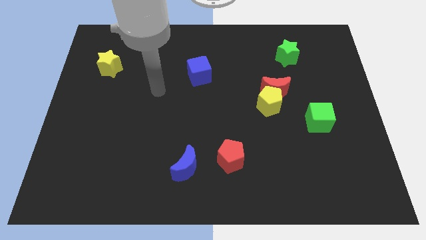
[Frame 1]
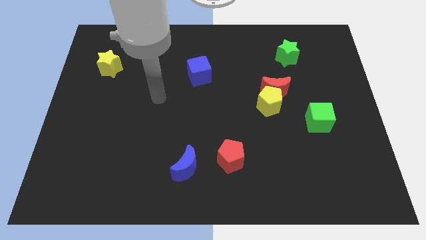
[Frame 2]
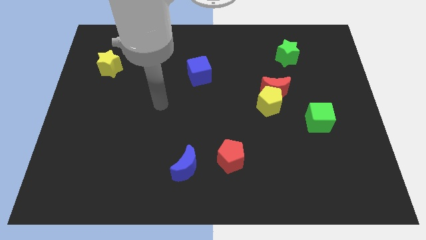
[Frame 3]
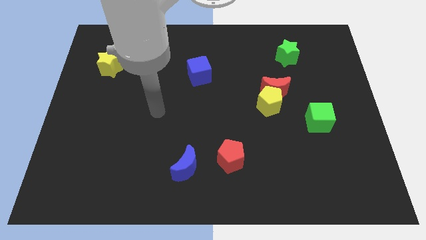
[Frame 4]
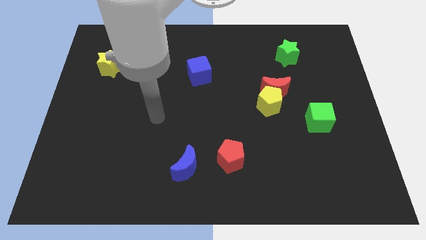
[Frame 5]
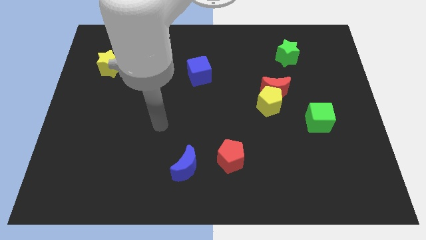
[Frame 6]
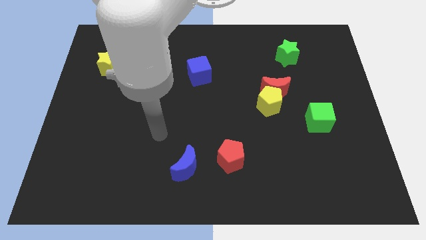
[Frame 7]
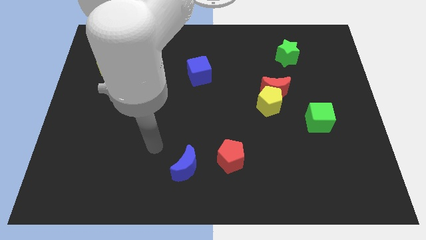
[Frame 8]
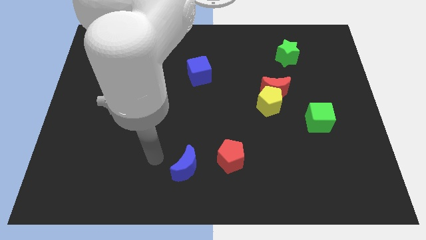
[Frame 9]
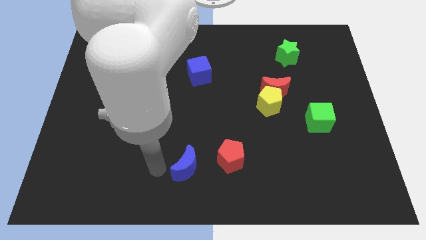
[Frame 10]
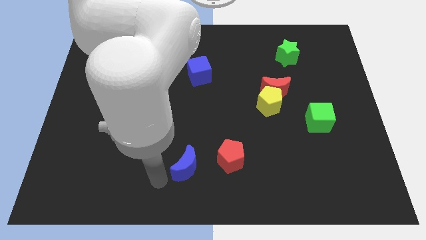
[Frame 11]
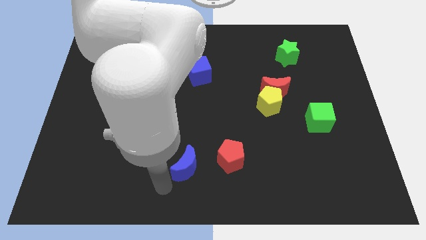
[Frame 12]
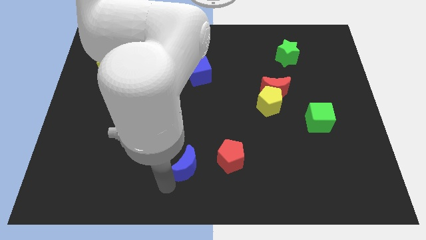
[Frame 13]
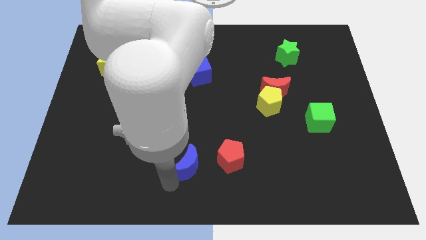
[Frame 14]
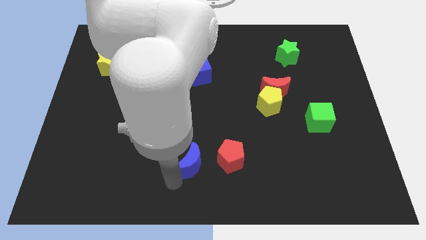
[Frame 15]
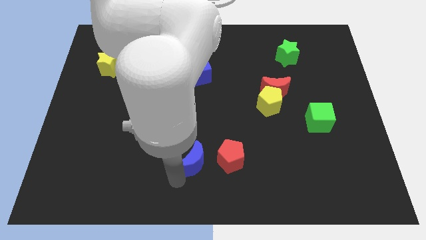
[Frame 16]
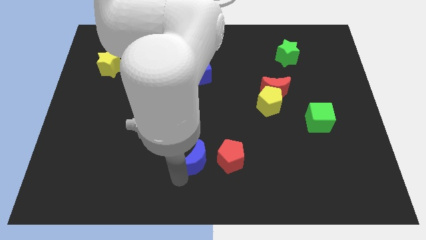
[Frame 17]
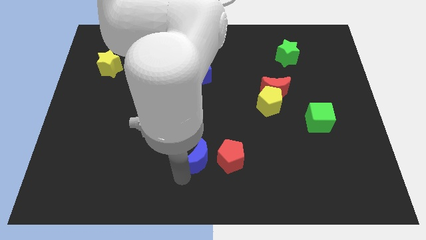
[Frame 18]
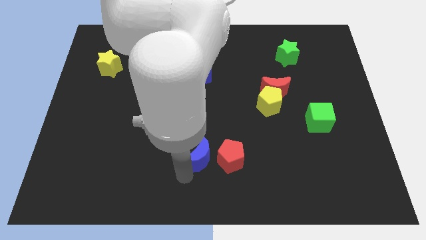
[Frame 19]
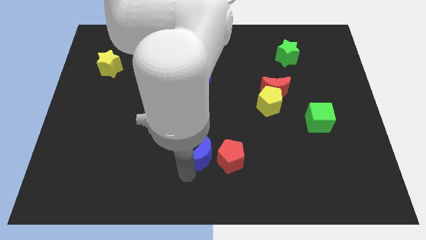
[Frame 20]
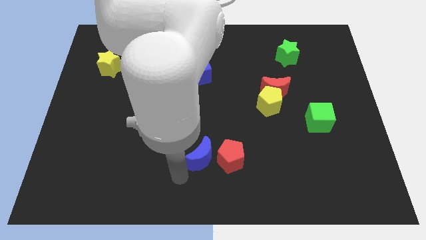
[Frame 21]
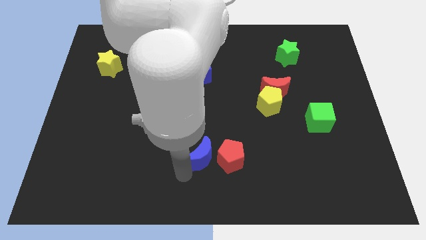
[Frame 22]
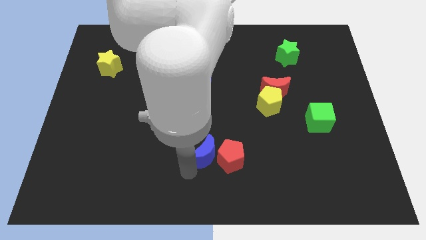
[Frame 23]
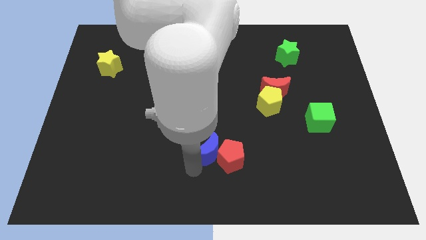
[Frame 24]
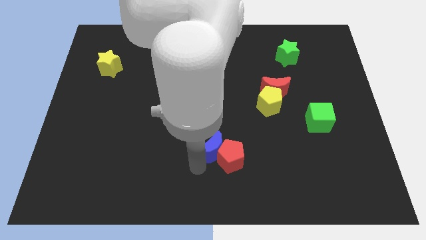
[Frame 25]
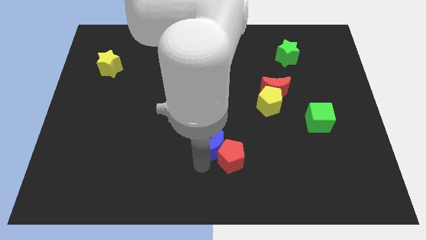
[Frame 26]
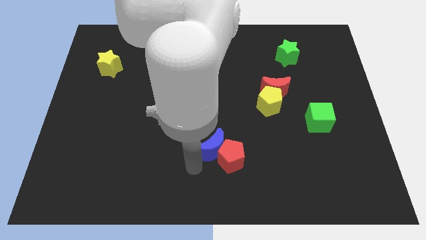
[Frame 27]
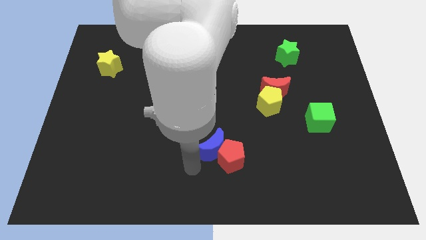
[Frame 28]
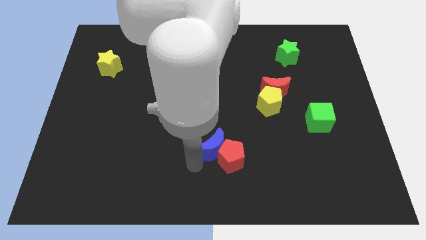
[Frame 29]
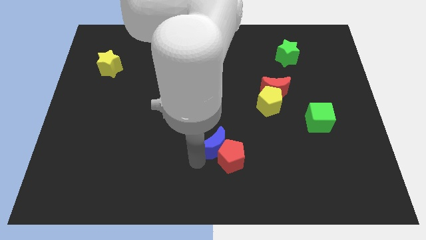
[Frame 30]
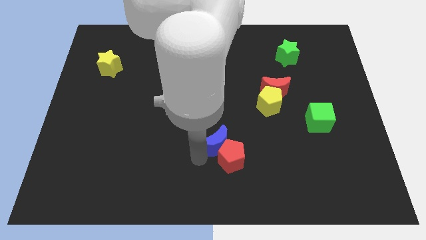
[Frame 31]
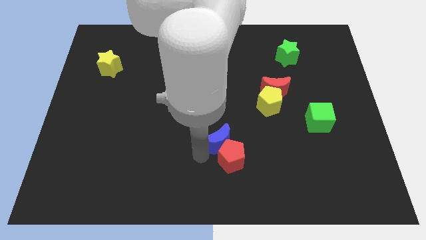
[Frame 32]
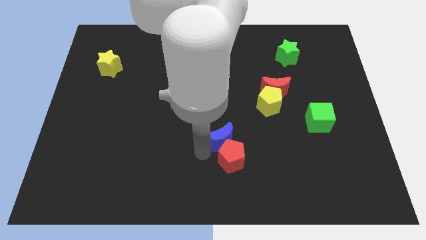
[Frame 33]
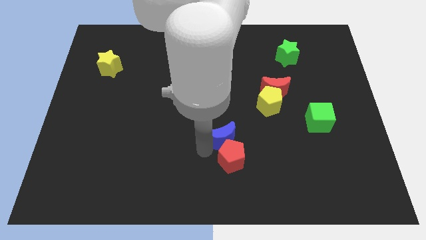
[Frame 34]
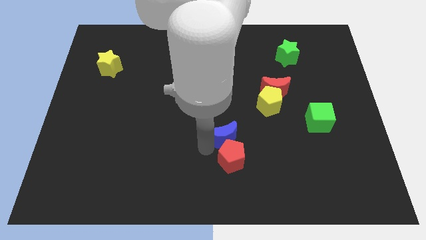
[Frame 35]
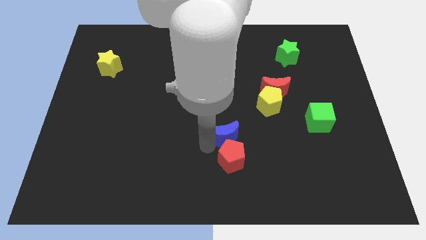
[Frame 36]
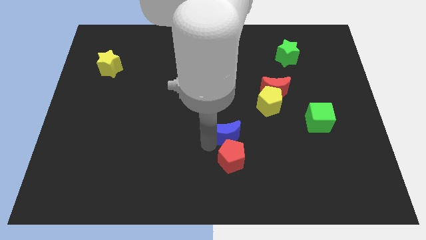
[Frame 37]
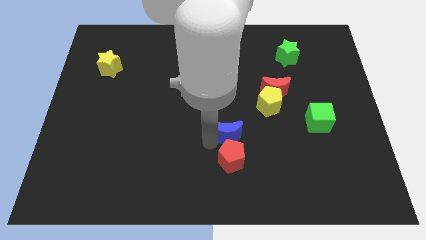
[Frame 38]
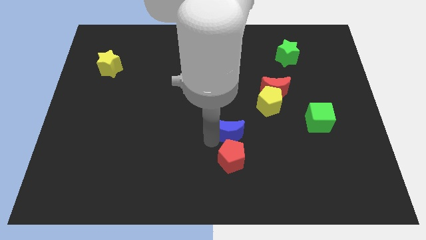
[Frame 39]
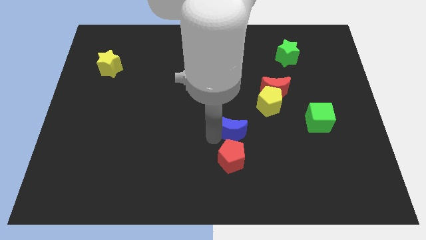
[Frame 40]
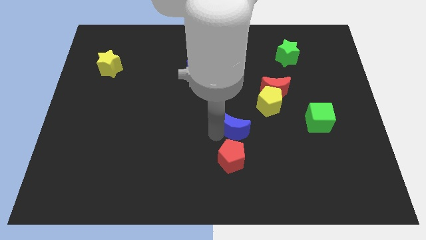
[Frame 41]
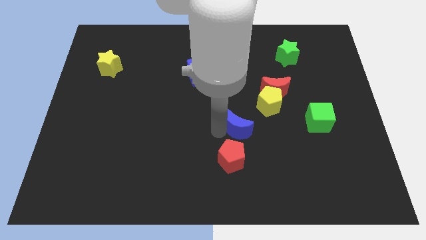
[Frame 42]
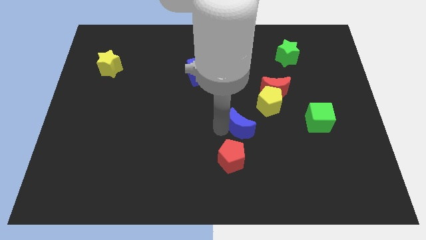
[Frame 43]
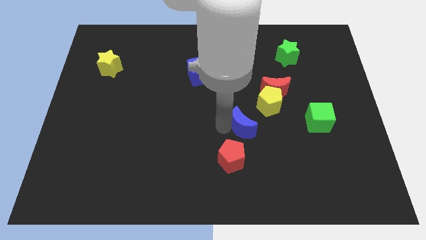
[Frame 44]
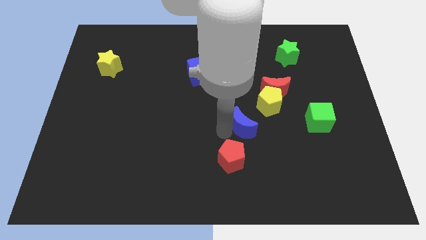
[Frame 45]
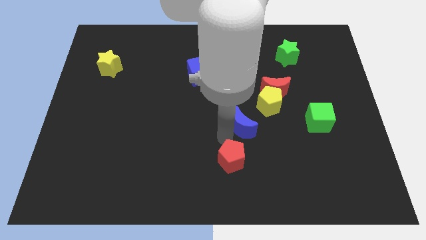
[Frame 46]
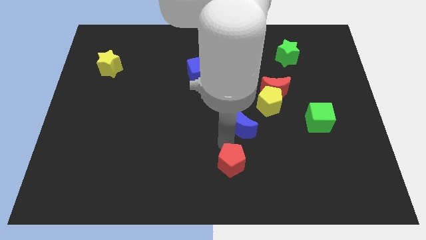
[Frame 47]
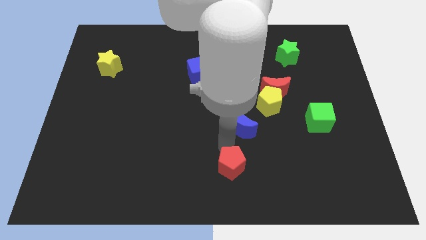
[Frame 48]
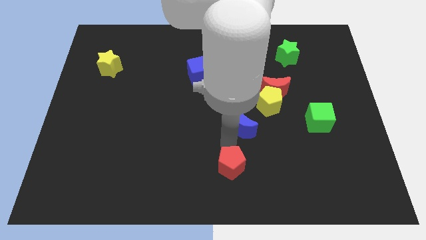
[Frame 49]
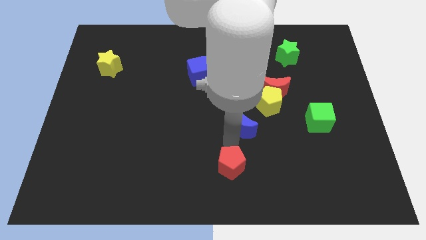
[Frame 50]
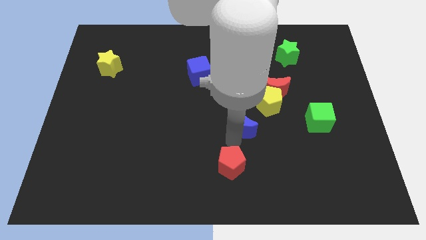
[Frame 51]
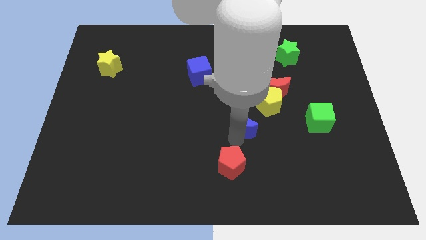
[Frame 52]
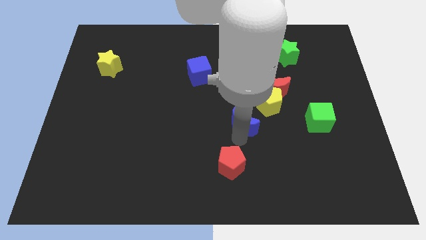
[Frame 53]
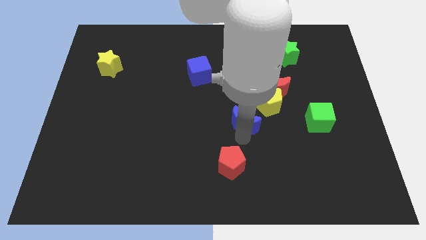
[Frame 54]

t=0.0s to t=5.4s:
put the blue moon diagonally down and to the left of the red moon

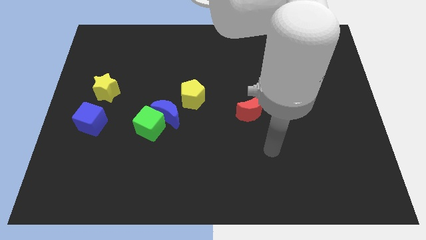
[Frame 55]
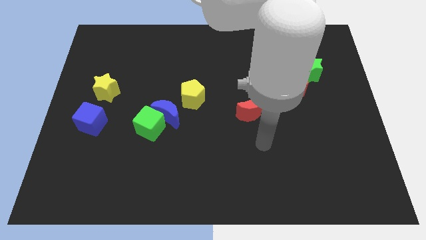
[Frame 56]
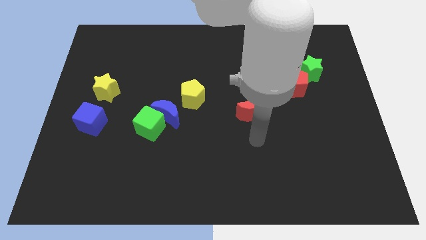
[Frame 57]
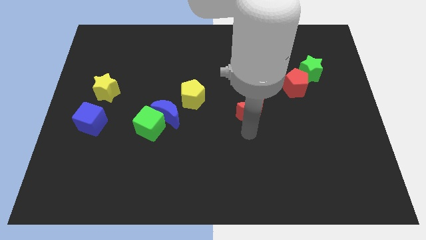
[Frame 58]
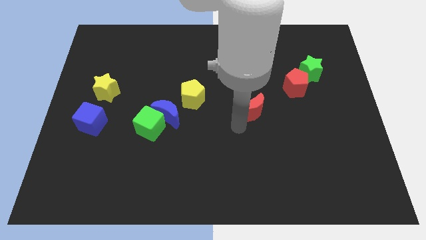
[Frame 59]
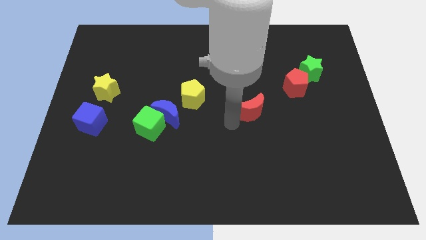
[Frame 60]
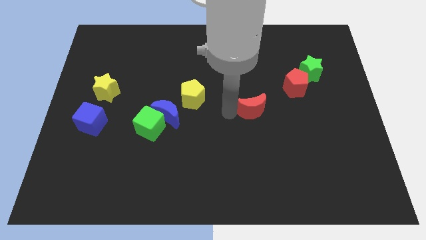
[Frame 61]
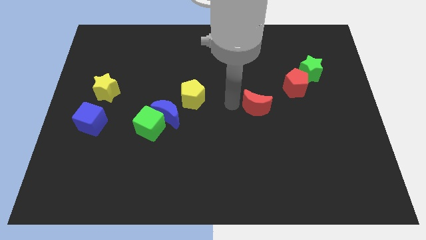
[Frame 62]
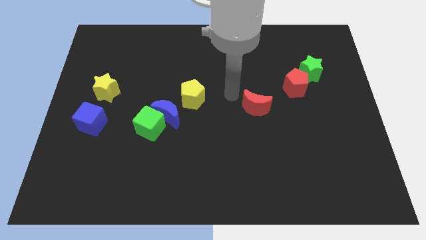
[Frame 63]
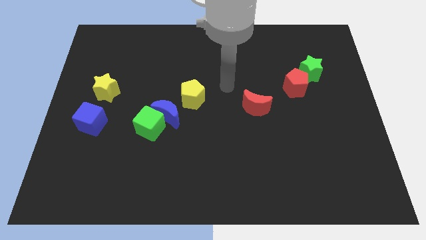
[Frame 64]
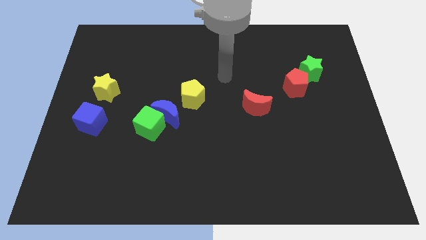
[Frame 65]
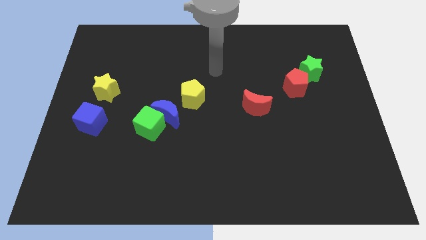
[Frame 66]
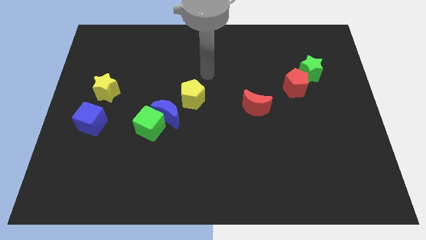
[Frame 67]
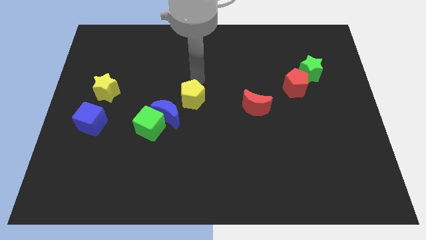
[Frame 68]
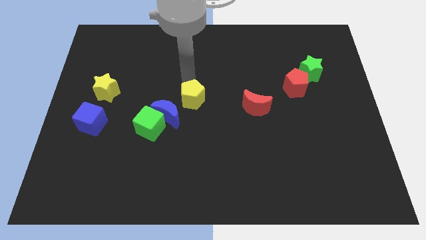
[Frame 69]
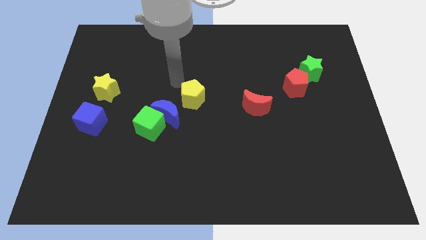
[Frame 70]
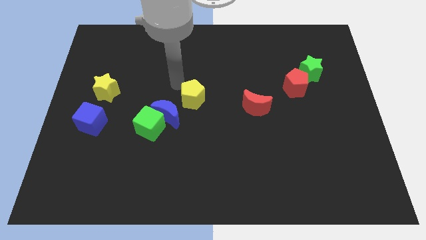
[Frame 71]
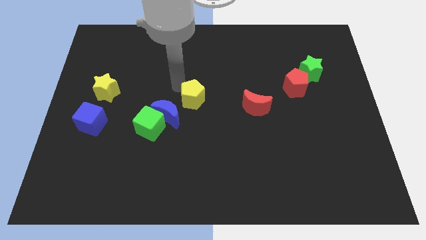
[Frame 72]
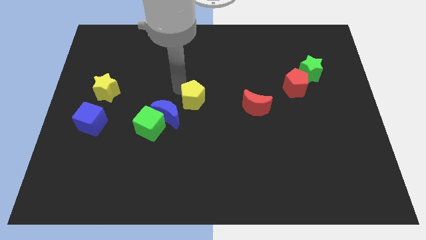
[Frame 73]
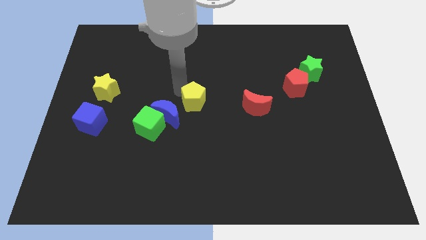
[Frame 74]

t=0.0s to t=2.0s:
slide the yellow pentagon to the right side of the blue moon

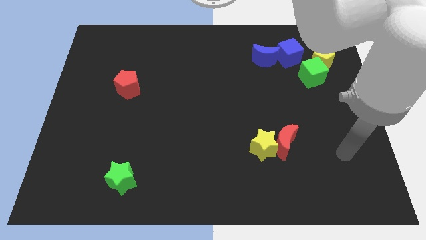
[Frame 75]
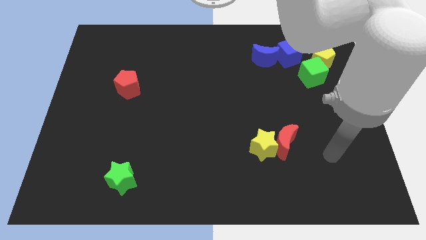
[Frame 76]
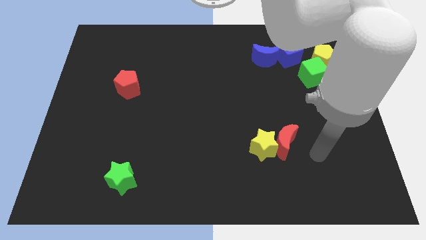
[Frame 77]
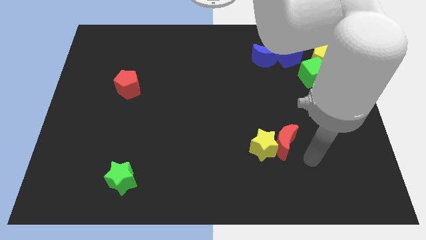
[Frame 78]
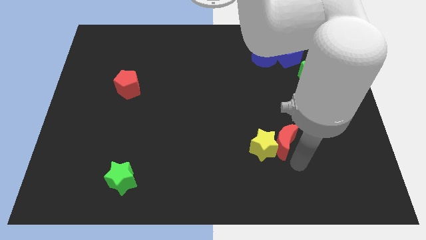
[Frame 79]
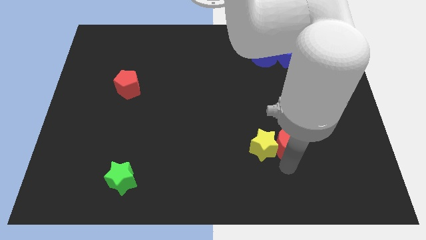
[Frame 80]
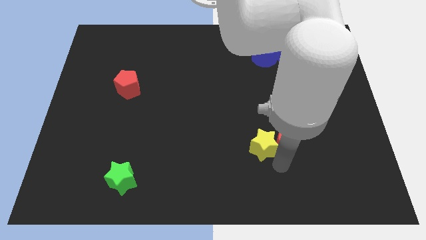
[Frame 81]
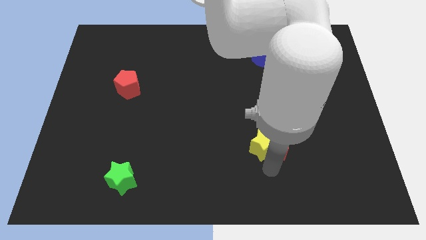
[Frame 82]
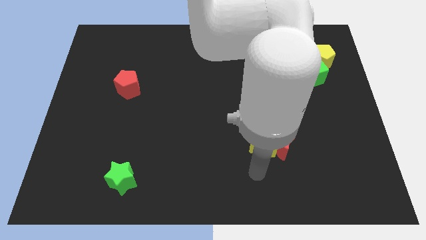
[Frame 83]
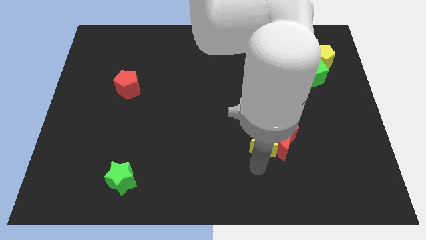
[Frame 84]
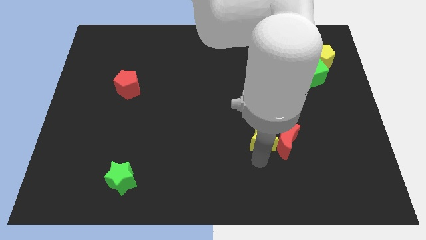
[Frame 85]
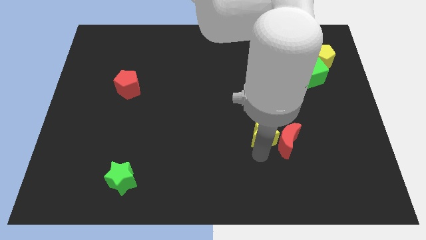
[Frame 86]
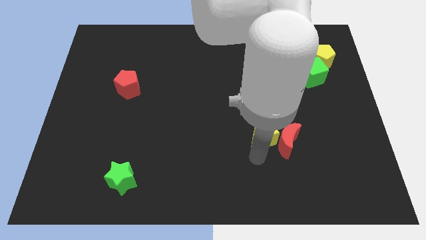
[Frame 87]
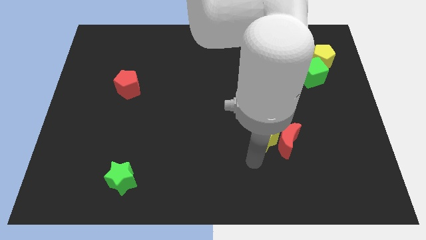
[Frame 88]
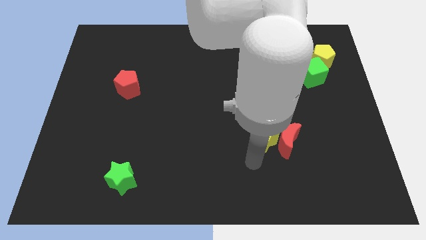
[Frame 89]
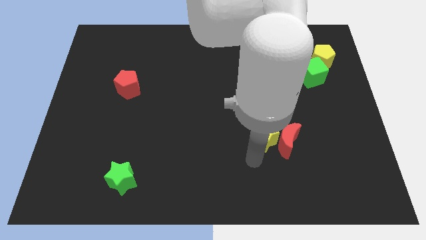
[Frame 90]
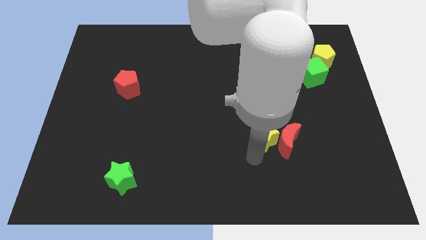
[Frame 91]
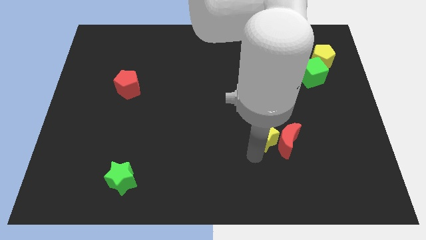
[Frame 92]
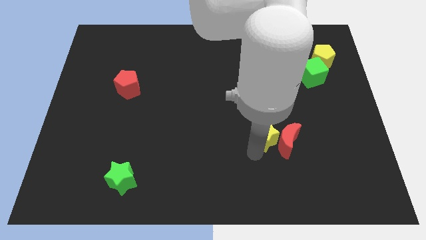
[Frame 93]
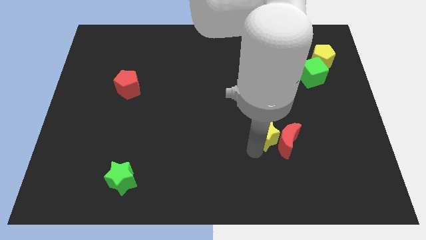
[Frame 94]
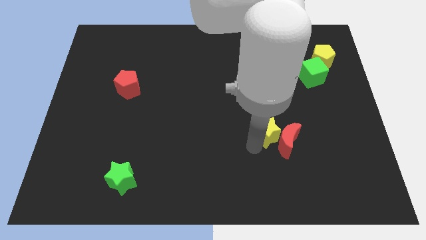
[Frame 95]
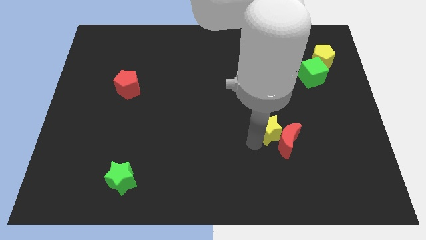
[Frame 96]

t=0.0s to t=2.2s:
put the yellow star to the top side of the red moon
